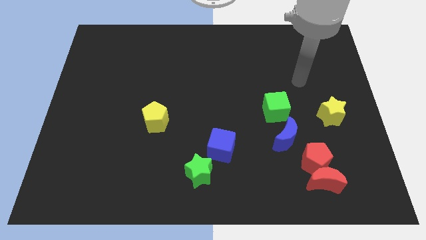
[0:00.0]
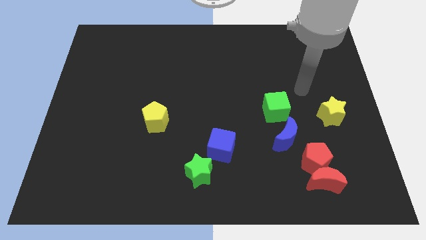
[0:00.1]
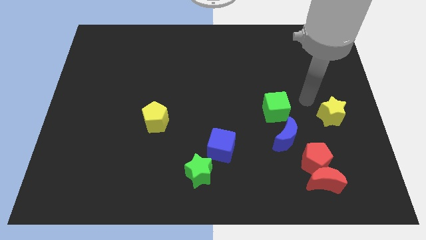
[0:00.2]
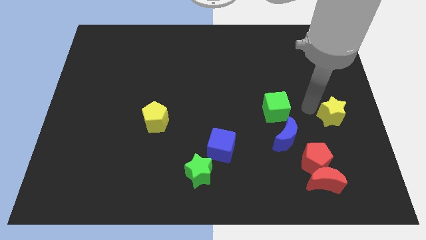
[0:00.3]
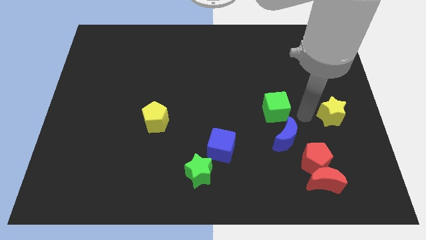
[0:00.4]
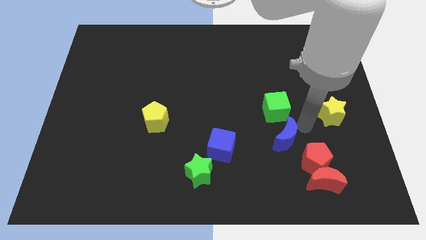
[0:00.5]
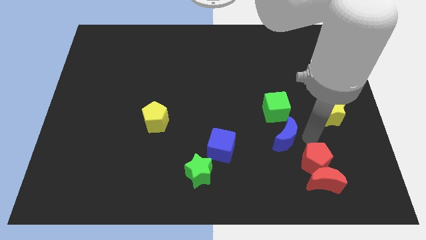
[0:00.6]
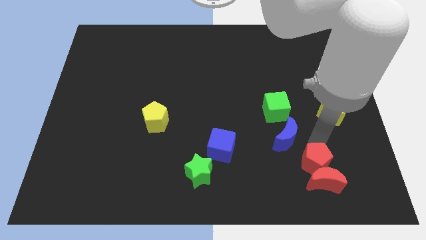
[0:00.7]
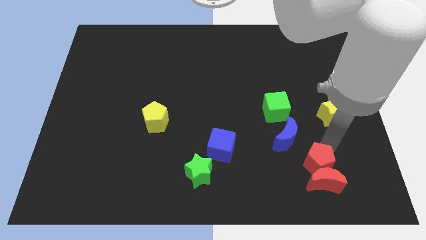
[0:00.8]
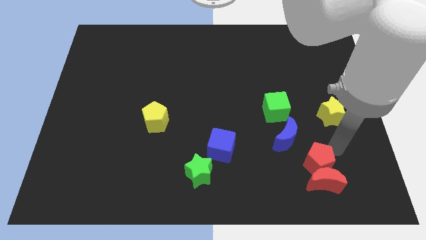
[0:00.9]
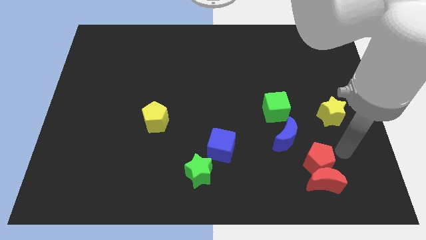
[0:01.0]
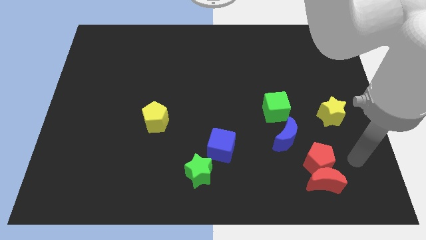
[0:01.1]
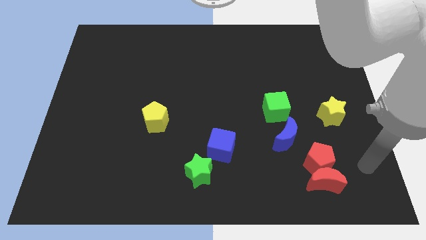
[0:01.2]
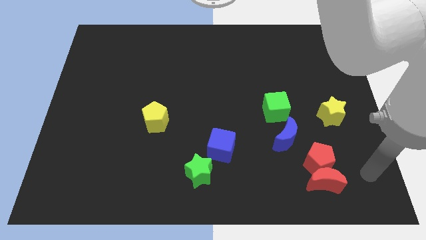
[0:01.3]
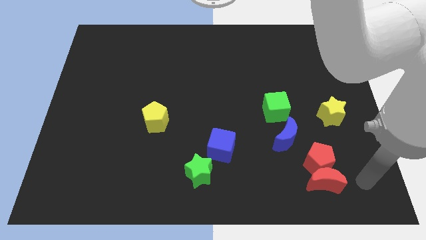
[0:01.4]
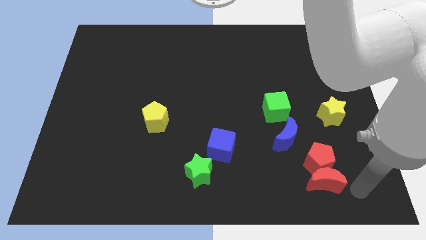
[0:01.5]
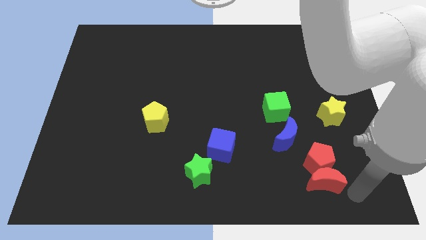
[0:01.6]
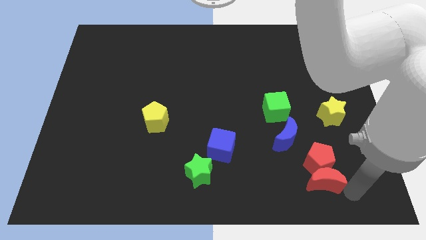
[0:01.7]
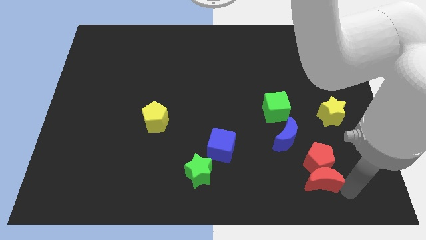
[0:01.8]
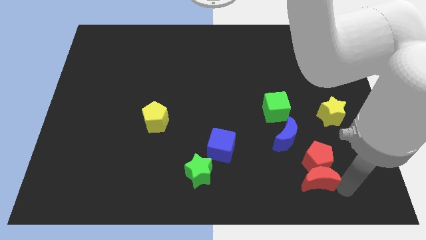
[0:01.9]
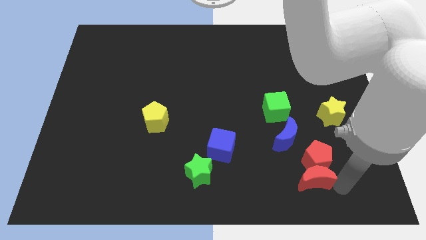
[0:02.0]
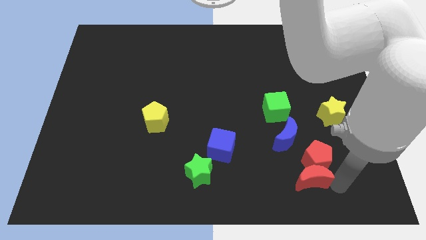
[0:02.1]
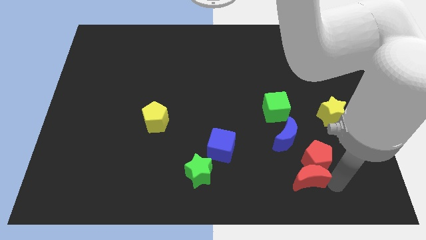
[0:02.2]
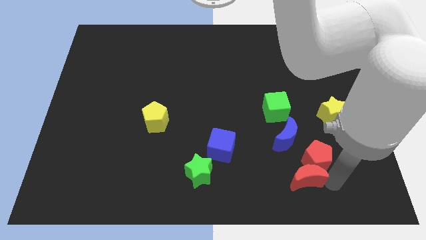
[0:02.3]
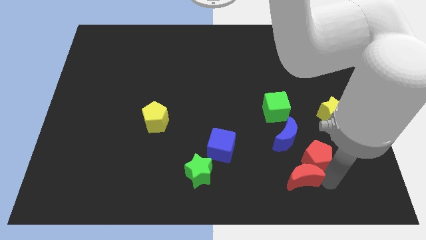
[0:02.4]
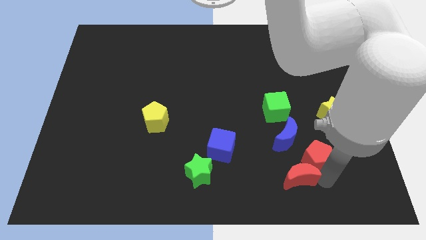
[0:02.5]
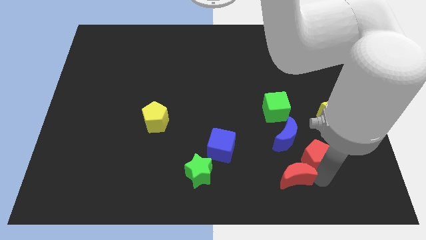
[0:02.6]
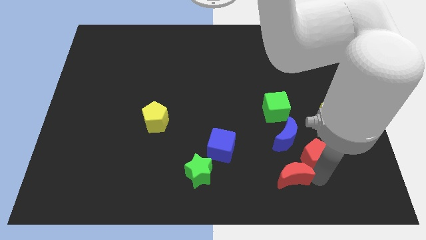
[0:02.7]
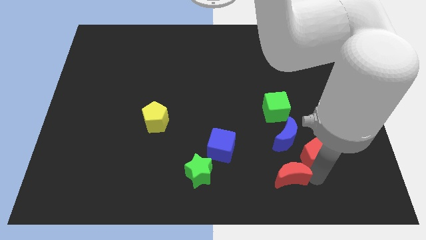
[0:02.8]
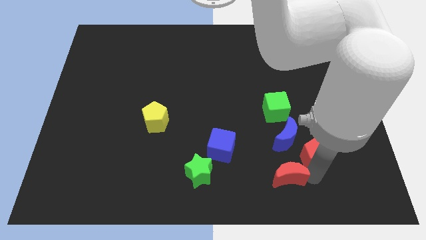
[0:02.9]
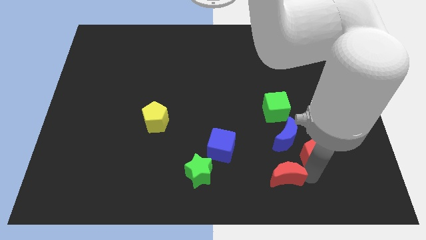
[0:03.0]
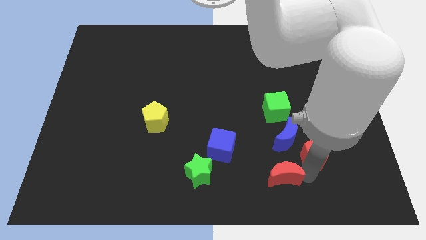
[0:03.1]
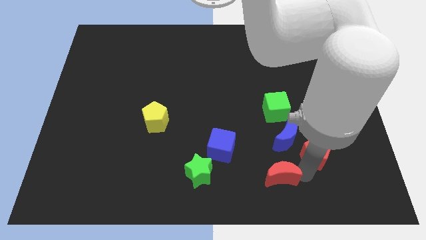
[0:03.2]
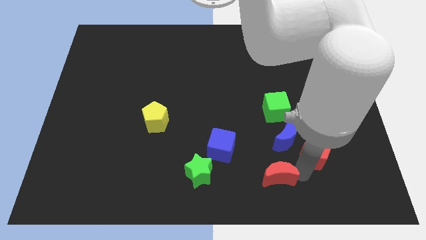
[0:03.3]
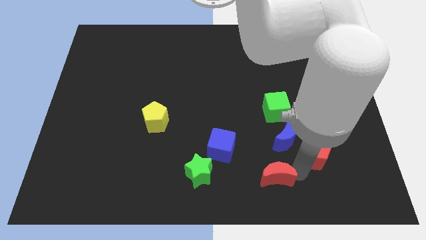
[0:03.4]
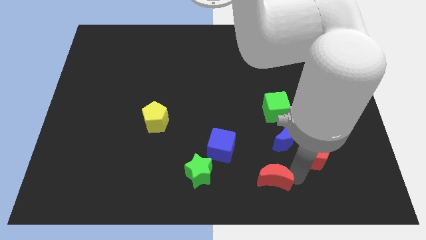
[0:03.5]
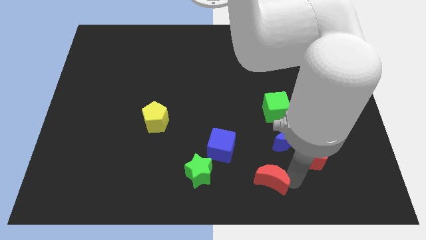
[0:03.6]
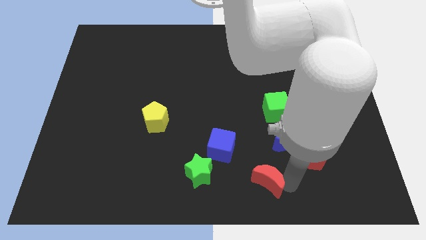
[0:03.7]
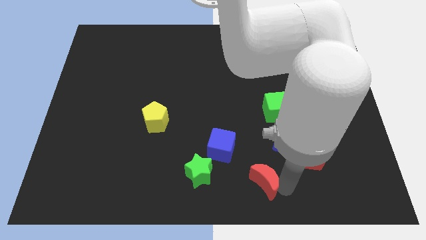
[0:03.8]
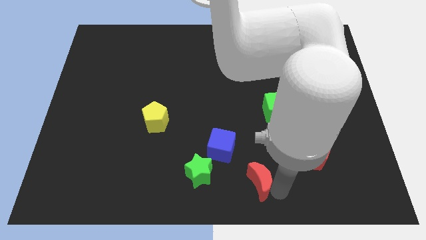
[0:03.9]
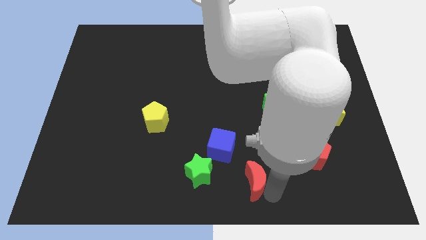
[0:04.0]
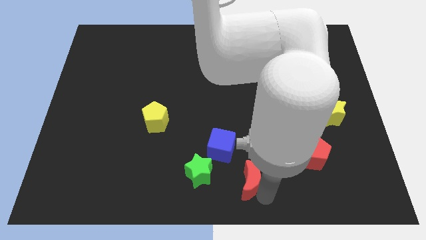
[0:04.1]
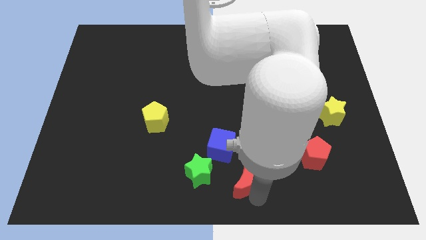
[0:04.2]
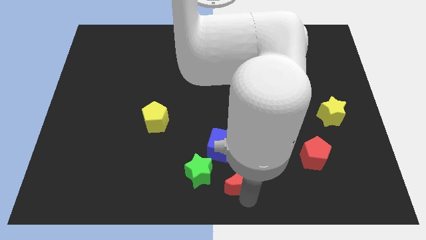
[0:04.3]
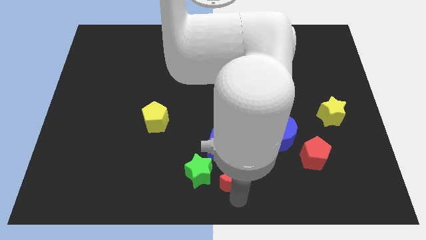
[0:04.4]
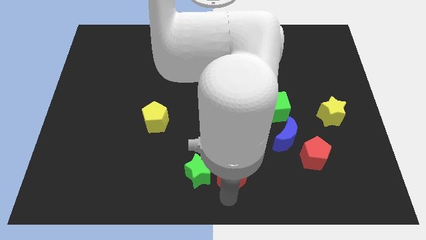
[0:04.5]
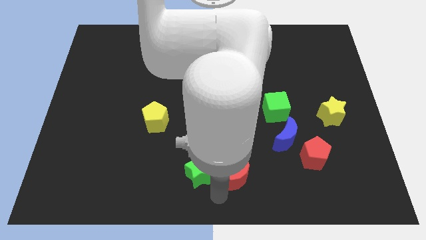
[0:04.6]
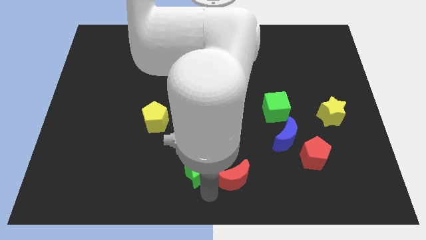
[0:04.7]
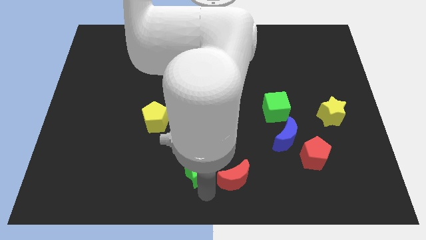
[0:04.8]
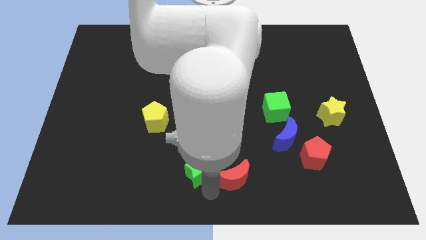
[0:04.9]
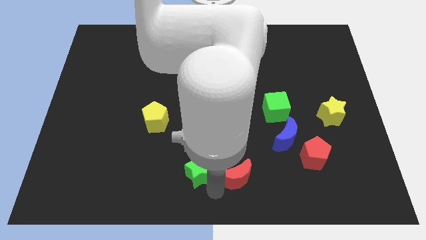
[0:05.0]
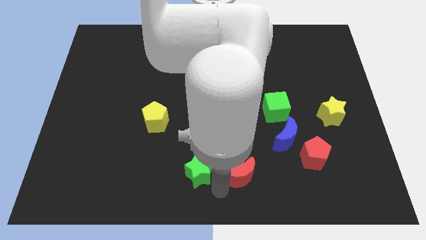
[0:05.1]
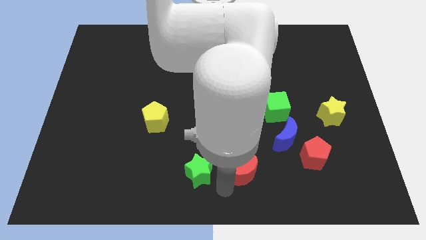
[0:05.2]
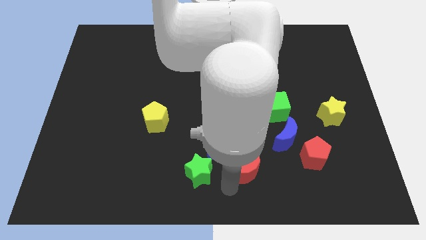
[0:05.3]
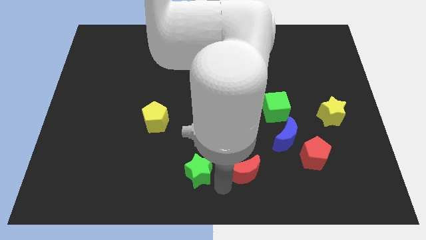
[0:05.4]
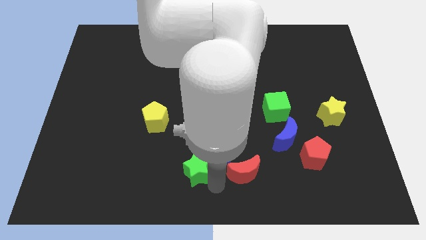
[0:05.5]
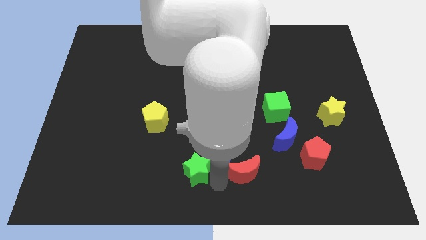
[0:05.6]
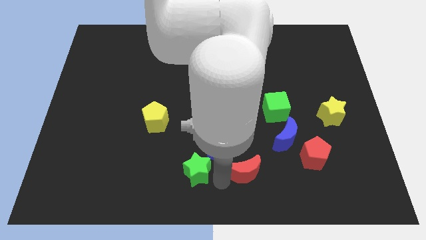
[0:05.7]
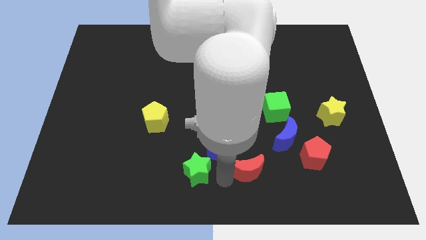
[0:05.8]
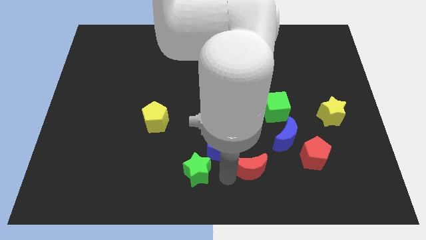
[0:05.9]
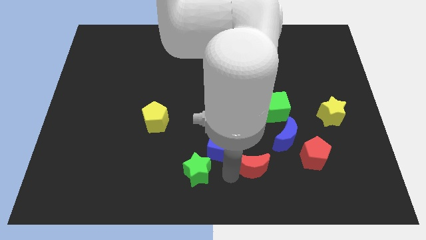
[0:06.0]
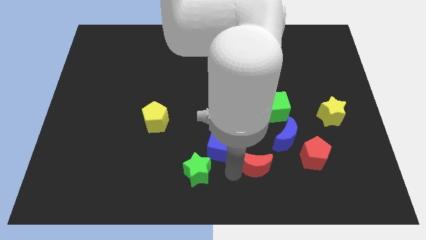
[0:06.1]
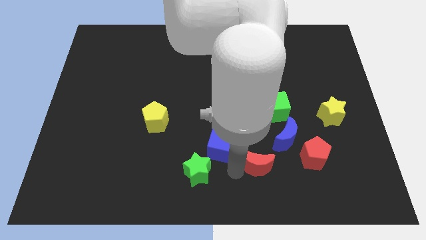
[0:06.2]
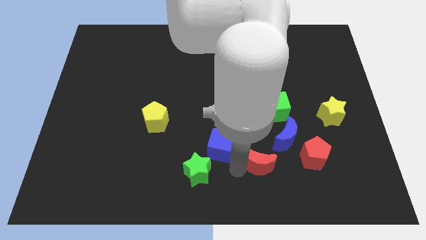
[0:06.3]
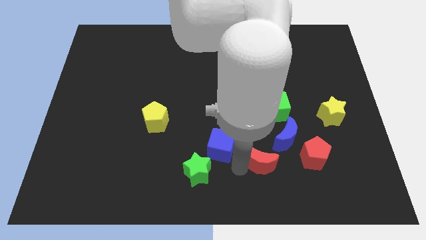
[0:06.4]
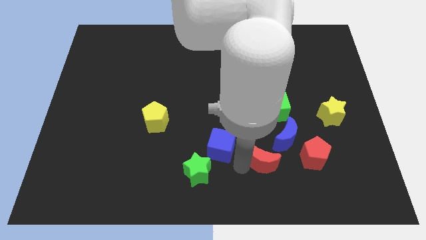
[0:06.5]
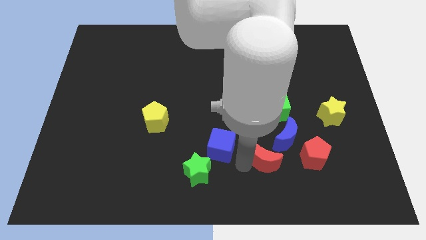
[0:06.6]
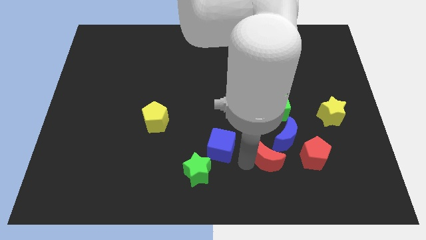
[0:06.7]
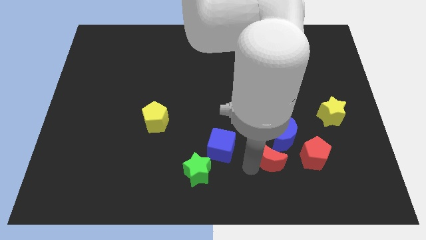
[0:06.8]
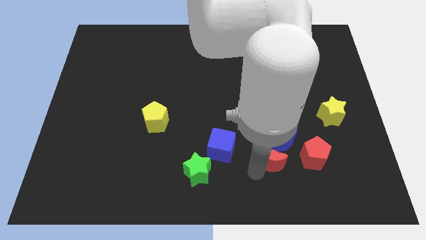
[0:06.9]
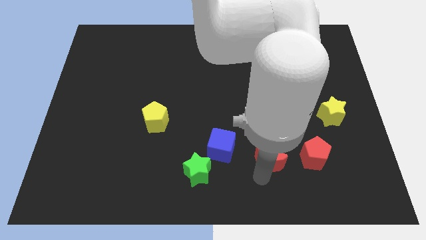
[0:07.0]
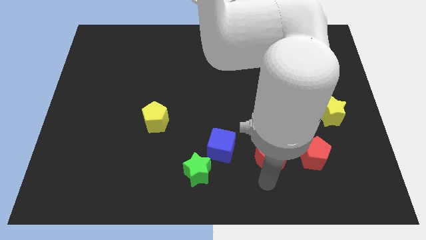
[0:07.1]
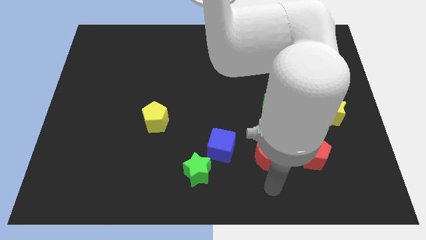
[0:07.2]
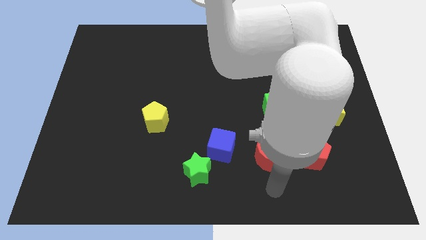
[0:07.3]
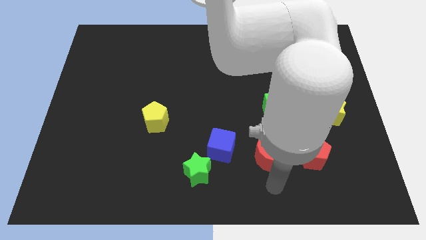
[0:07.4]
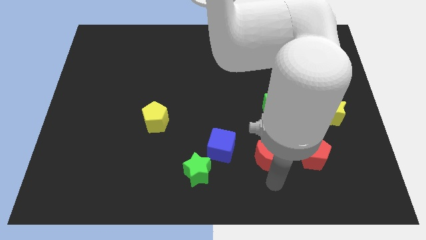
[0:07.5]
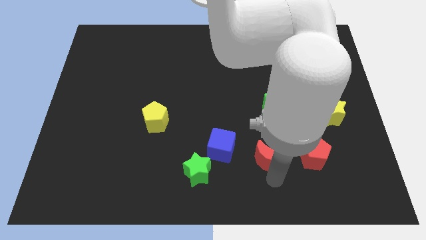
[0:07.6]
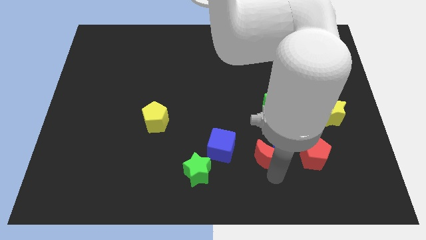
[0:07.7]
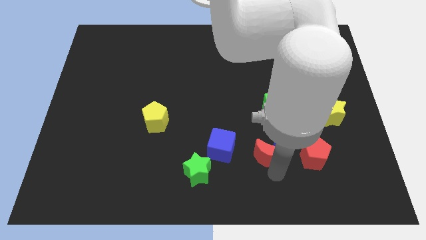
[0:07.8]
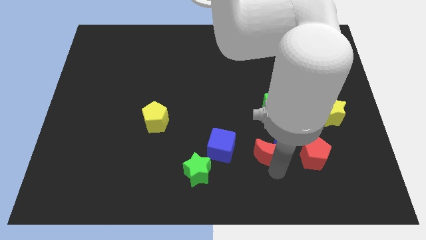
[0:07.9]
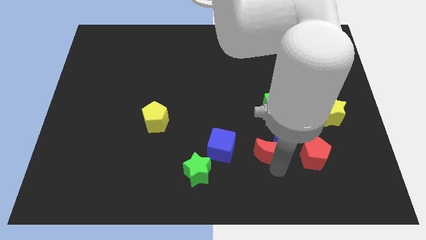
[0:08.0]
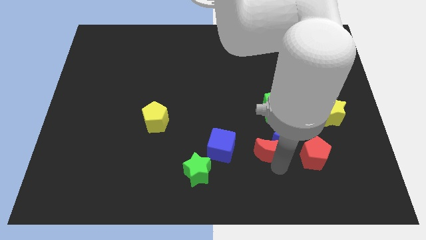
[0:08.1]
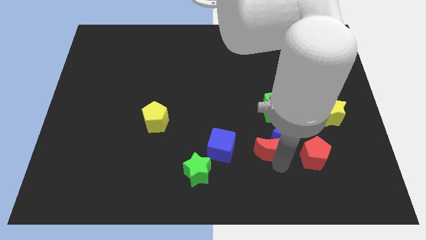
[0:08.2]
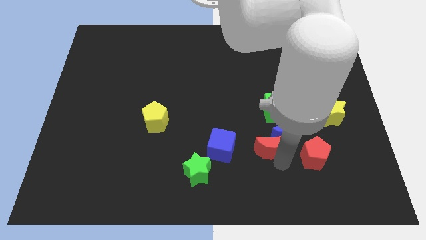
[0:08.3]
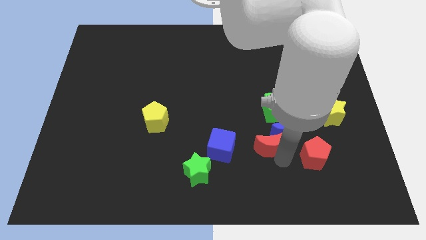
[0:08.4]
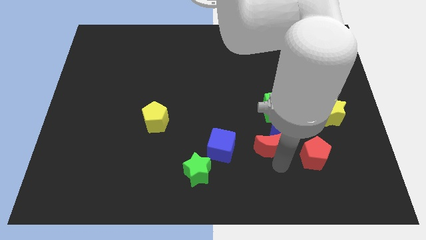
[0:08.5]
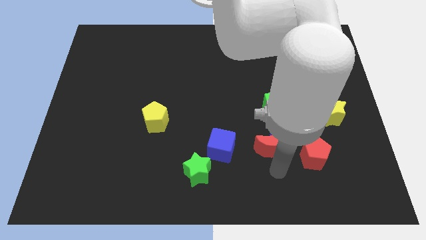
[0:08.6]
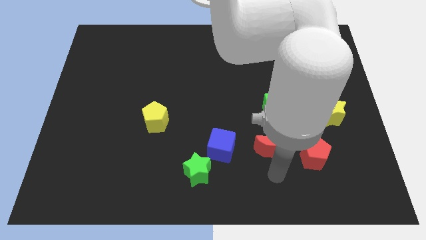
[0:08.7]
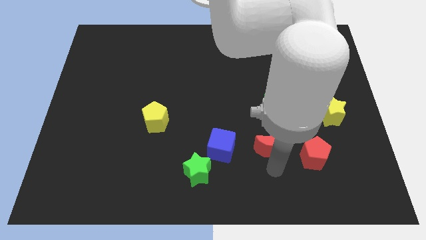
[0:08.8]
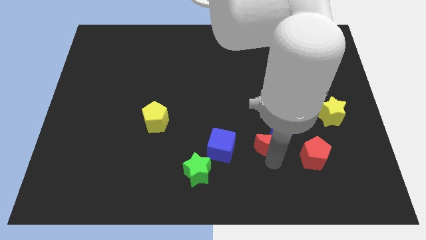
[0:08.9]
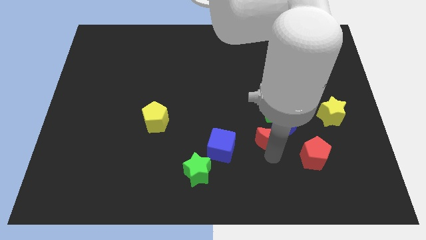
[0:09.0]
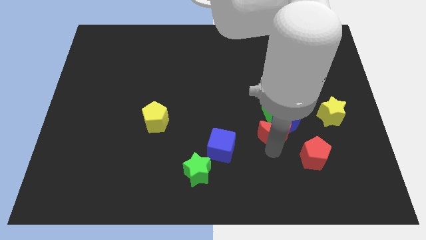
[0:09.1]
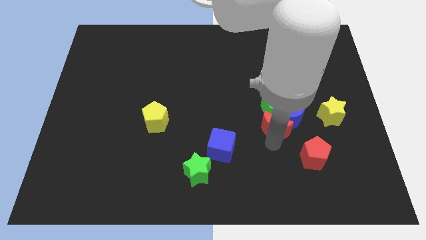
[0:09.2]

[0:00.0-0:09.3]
put the red moon close to the green cube
